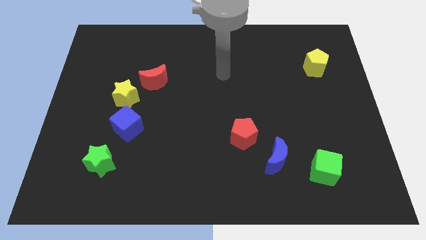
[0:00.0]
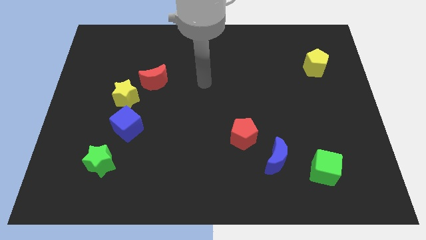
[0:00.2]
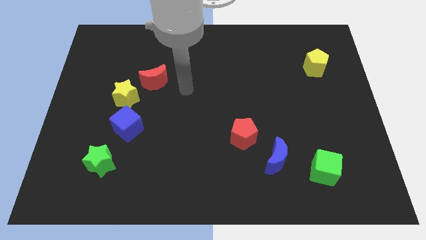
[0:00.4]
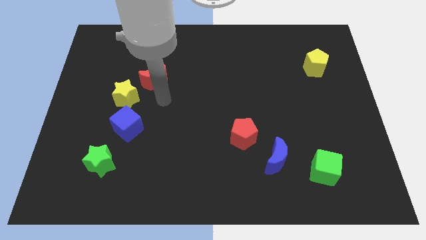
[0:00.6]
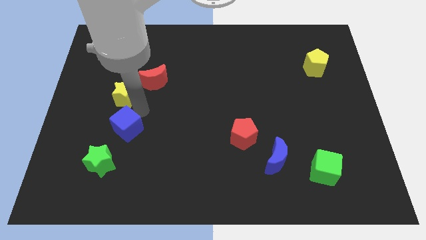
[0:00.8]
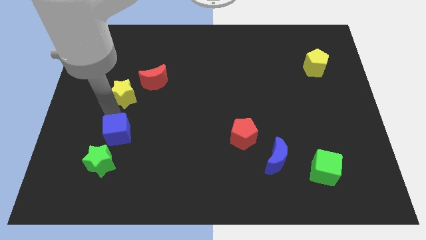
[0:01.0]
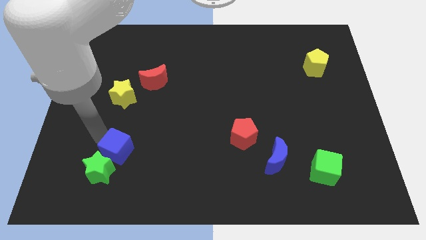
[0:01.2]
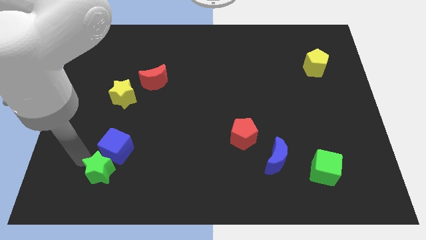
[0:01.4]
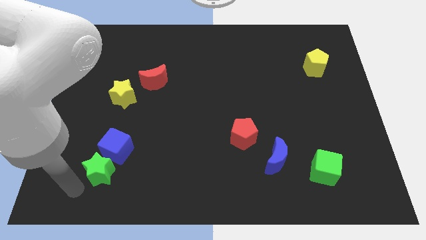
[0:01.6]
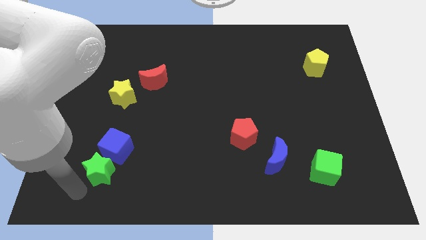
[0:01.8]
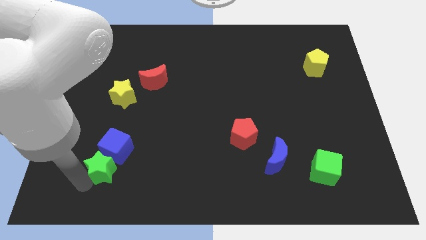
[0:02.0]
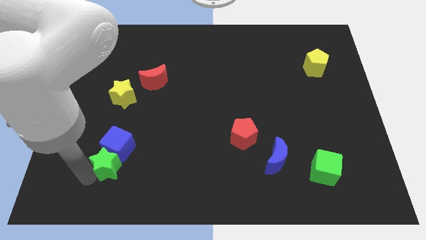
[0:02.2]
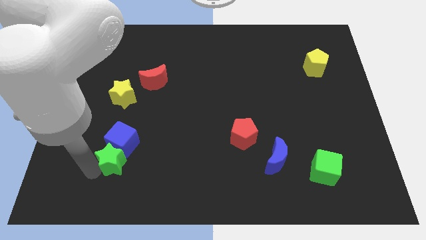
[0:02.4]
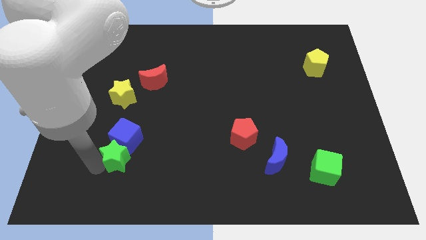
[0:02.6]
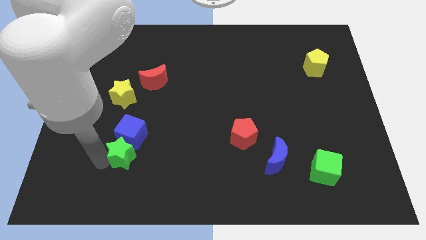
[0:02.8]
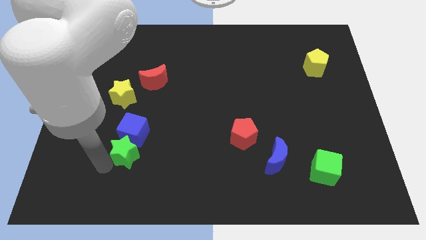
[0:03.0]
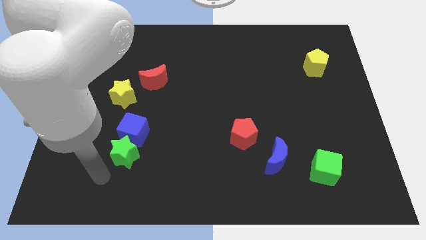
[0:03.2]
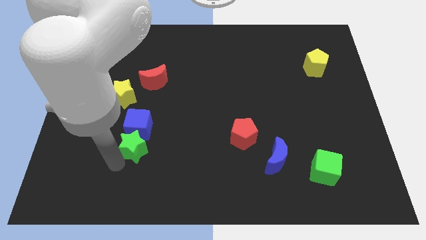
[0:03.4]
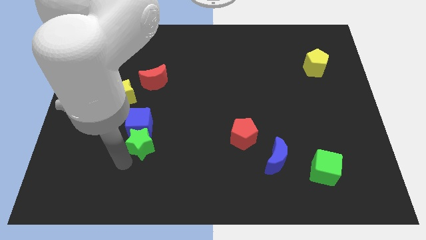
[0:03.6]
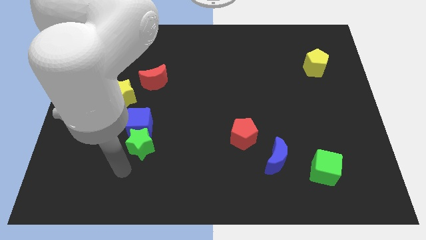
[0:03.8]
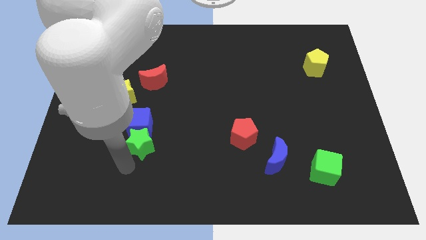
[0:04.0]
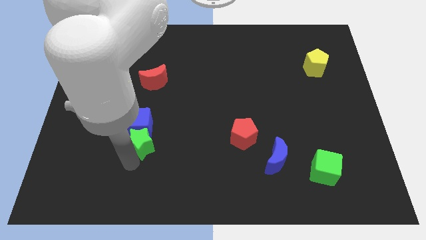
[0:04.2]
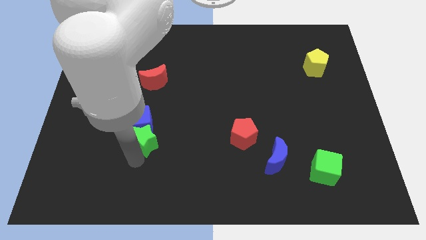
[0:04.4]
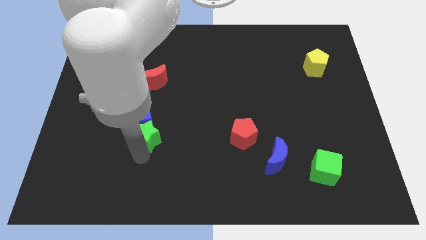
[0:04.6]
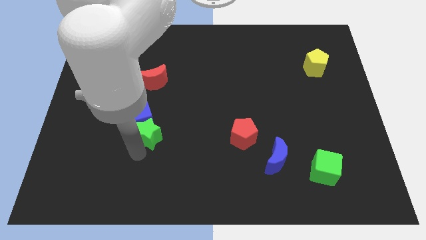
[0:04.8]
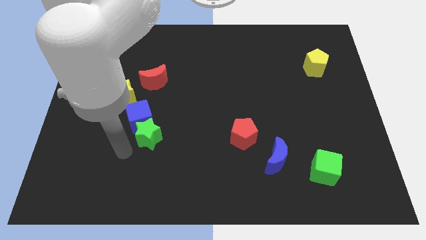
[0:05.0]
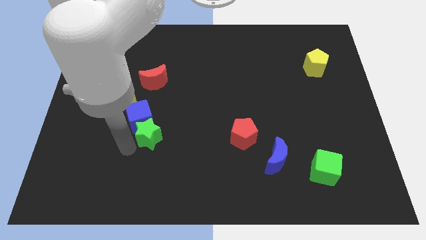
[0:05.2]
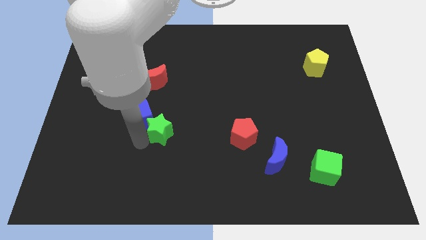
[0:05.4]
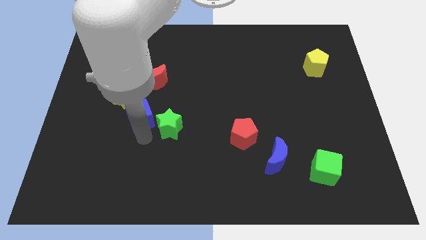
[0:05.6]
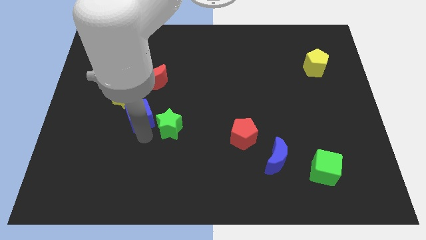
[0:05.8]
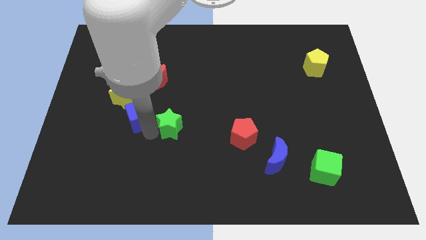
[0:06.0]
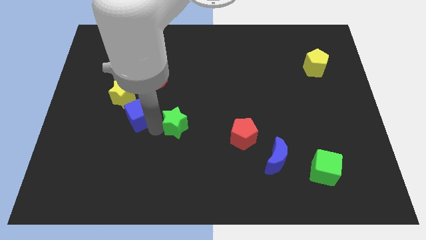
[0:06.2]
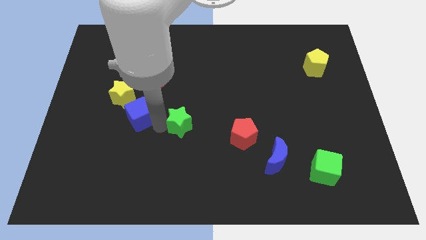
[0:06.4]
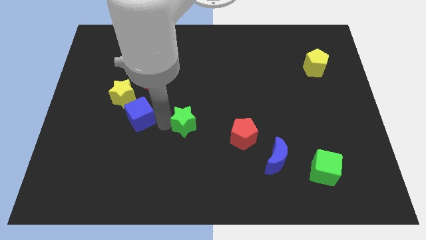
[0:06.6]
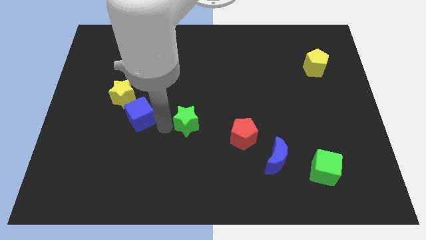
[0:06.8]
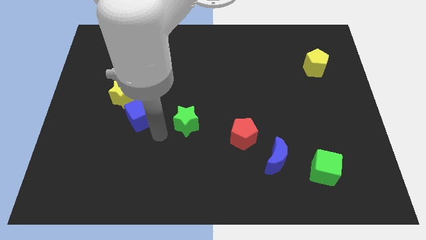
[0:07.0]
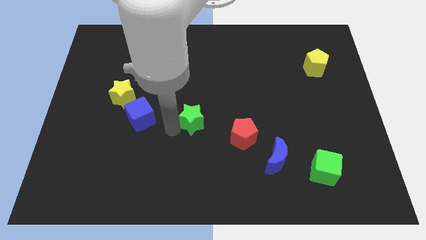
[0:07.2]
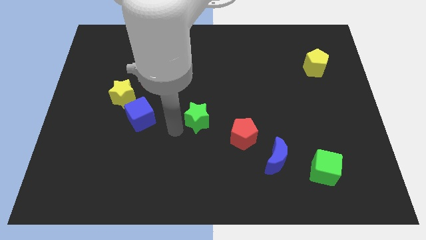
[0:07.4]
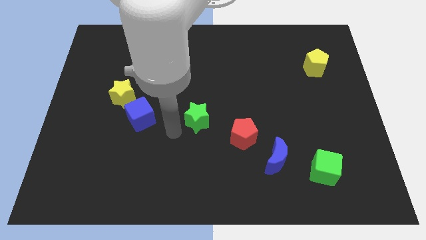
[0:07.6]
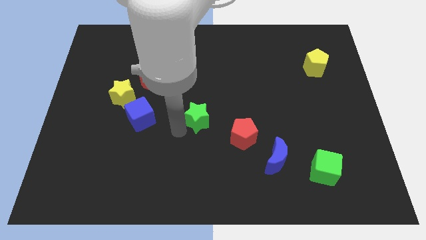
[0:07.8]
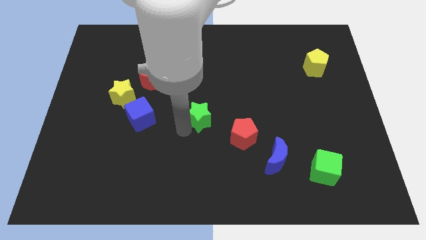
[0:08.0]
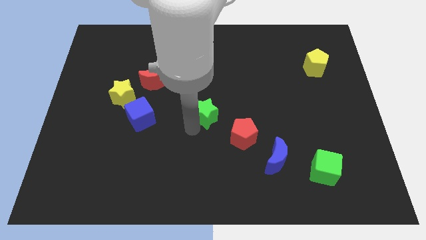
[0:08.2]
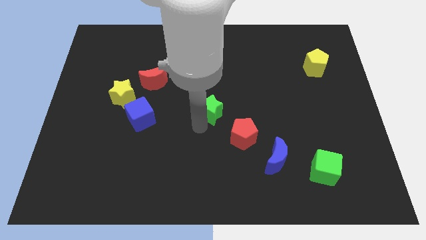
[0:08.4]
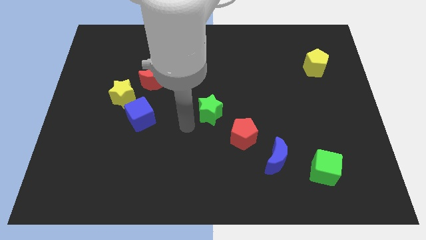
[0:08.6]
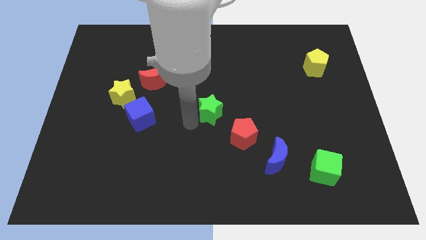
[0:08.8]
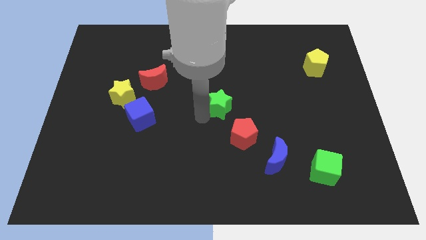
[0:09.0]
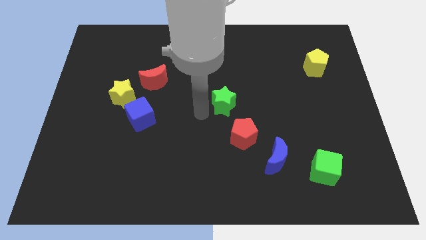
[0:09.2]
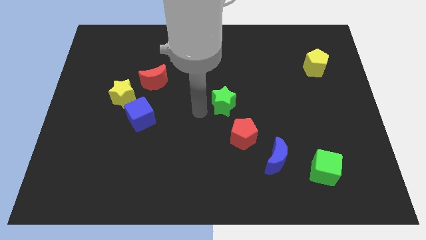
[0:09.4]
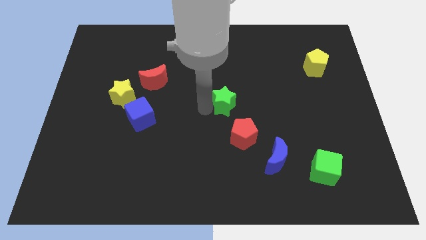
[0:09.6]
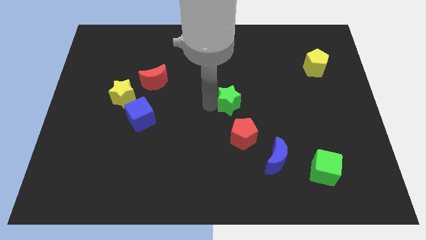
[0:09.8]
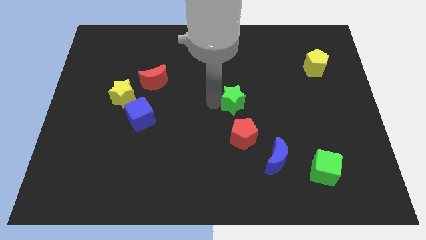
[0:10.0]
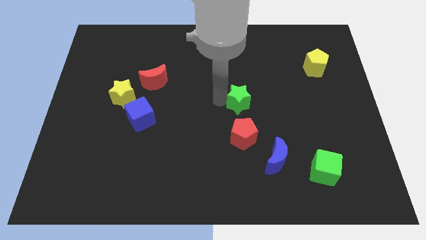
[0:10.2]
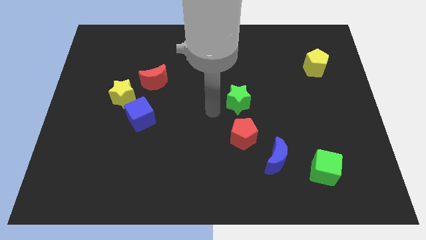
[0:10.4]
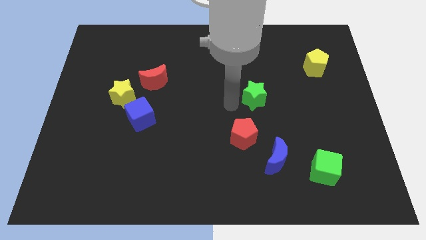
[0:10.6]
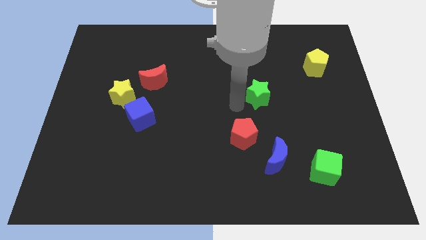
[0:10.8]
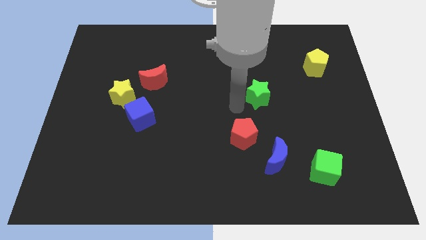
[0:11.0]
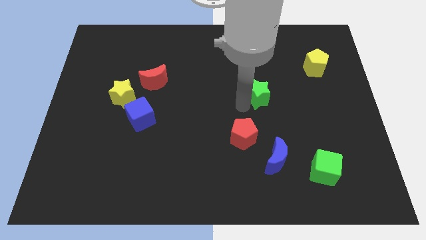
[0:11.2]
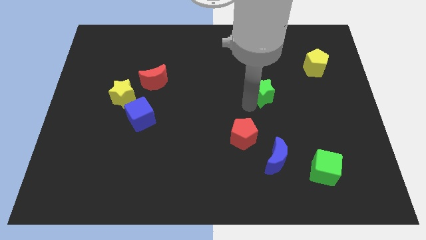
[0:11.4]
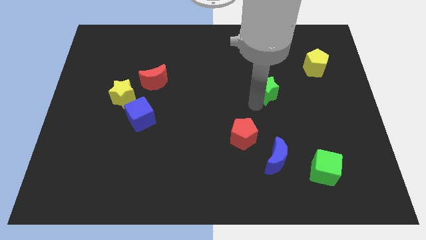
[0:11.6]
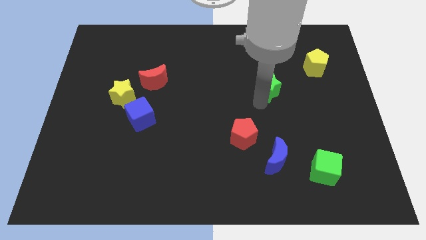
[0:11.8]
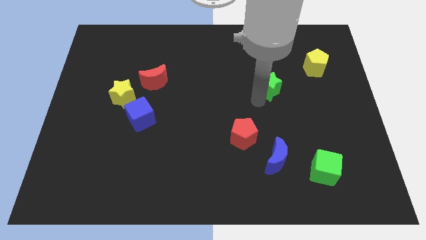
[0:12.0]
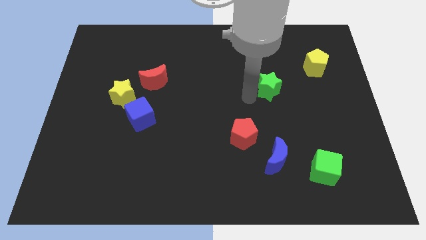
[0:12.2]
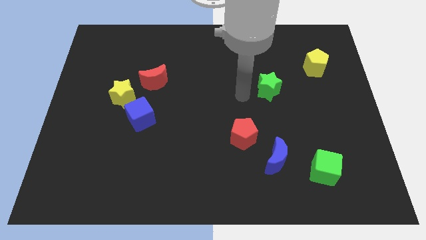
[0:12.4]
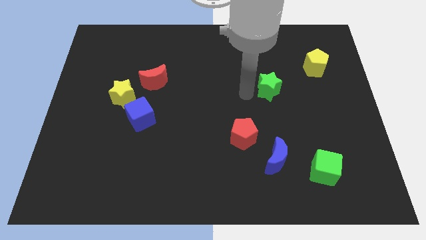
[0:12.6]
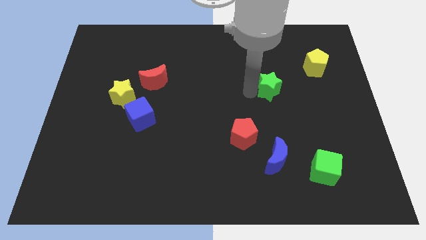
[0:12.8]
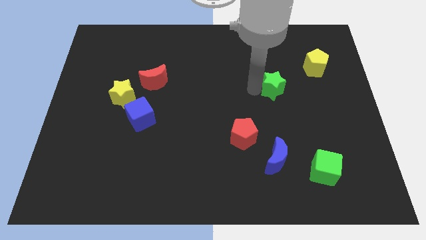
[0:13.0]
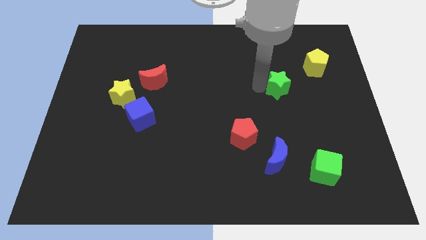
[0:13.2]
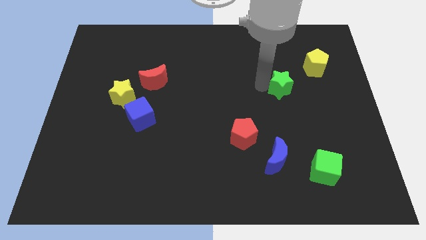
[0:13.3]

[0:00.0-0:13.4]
slide the green star diagonally down and to the left of the yellow pentagon

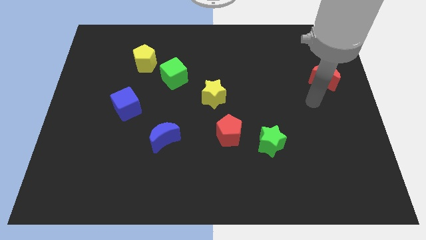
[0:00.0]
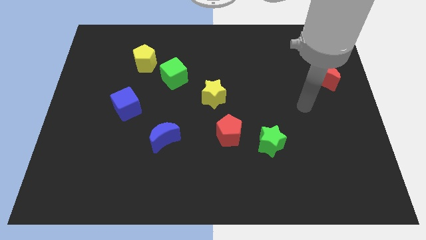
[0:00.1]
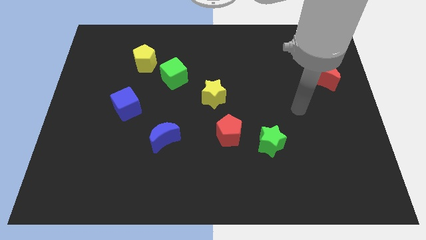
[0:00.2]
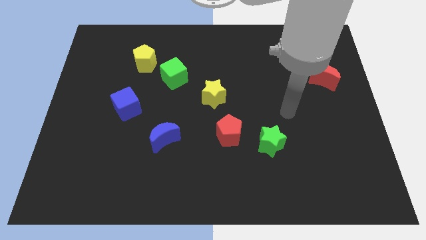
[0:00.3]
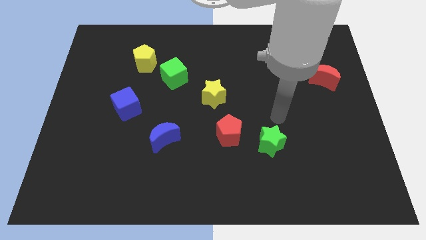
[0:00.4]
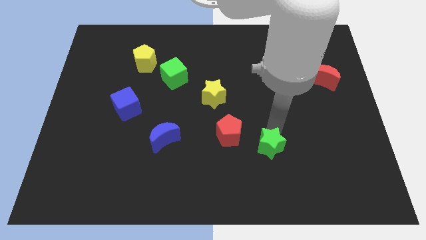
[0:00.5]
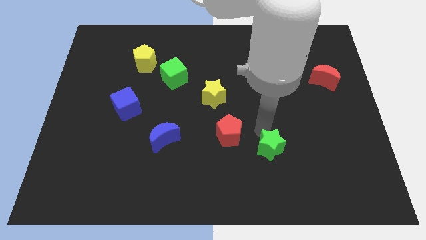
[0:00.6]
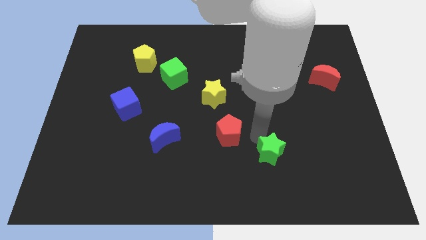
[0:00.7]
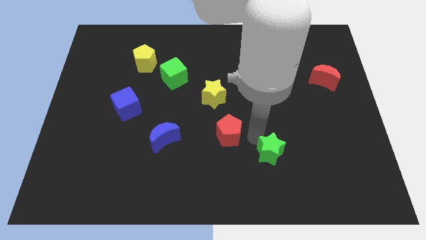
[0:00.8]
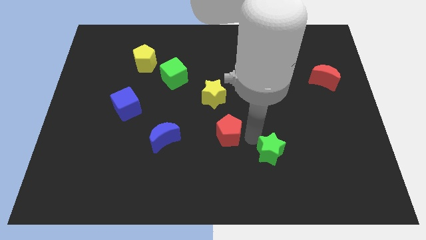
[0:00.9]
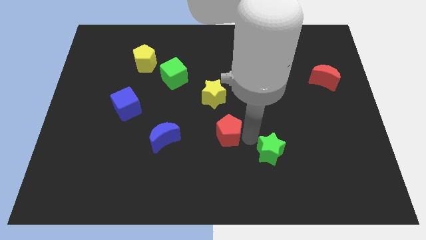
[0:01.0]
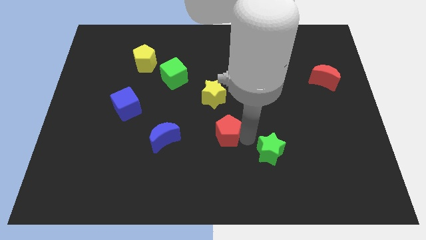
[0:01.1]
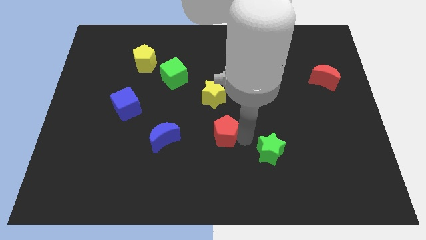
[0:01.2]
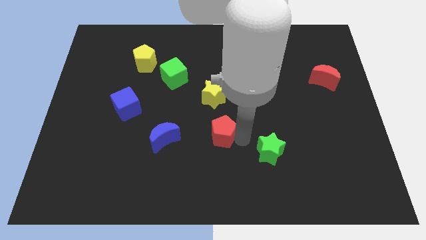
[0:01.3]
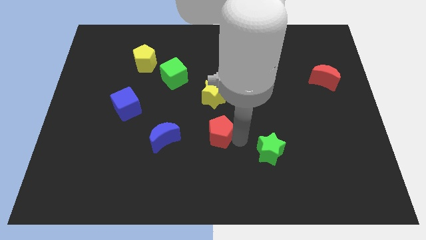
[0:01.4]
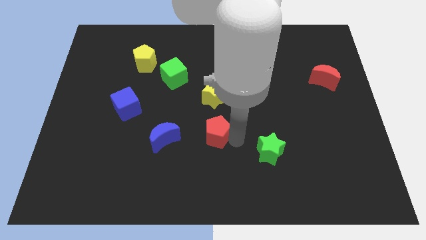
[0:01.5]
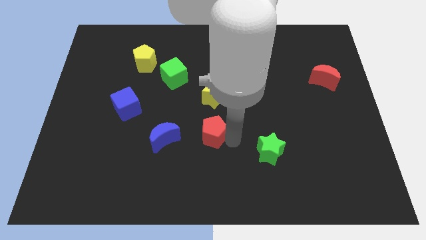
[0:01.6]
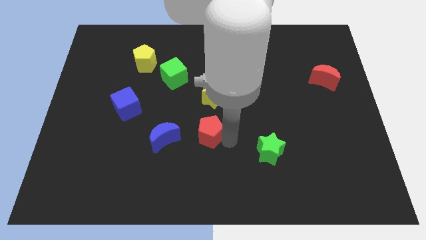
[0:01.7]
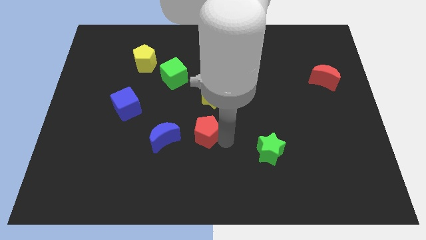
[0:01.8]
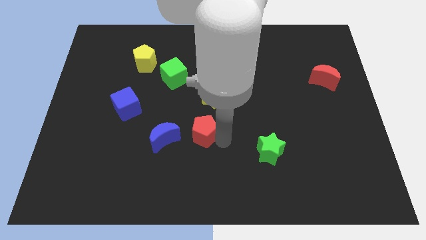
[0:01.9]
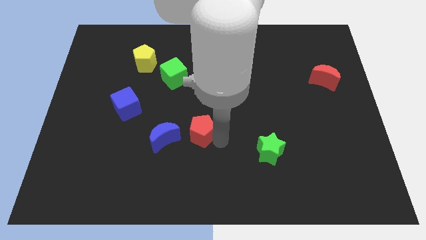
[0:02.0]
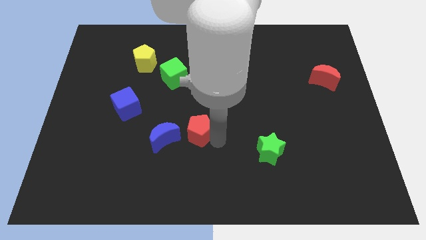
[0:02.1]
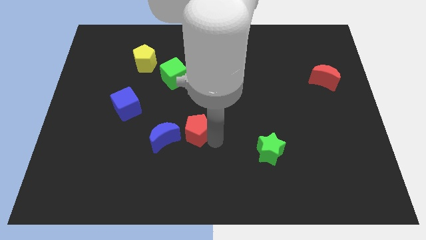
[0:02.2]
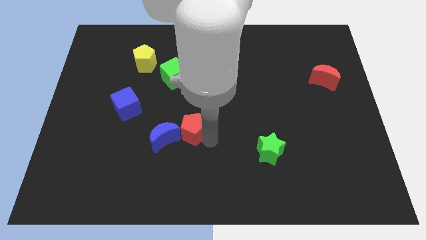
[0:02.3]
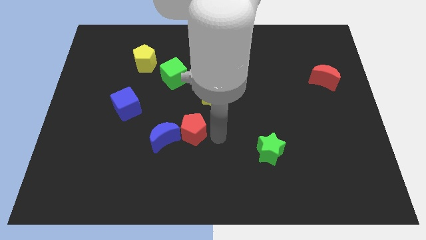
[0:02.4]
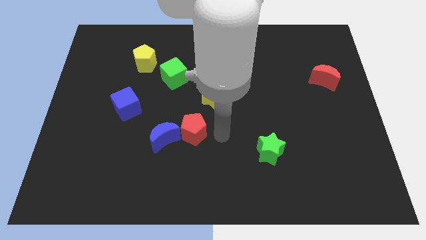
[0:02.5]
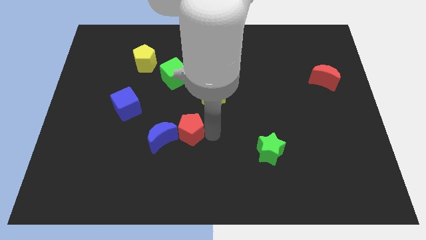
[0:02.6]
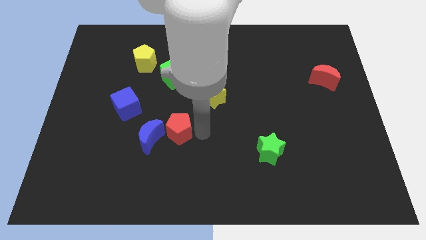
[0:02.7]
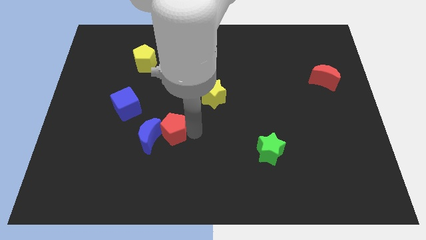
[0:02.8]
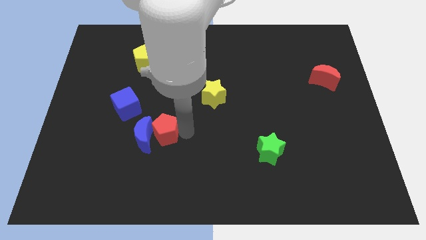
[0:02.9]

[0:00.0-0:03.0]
put the red pentagon to the bottom right of the blue cube
